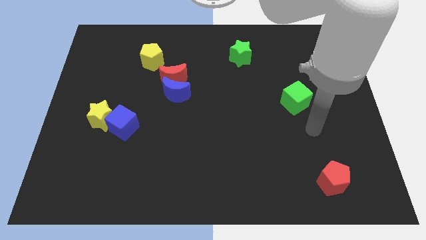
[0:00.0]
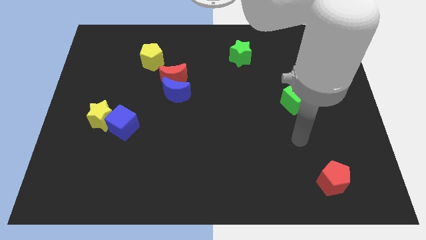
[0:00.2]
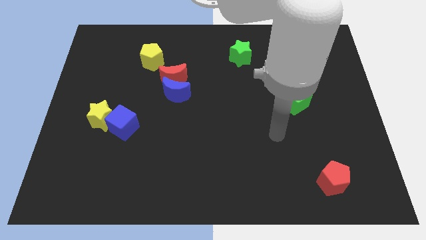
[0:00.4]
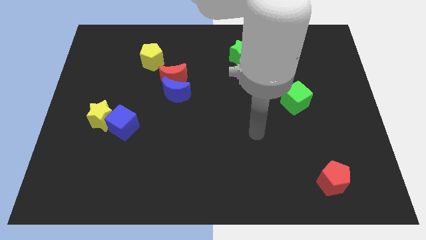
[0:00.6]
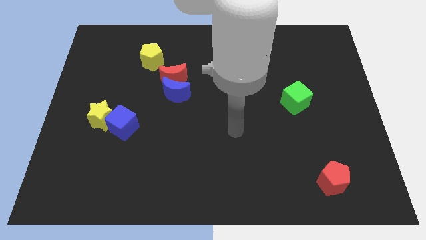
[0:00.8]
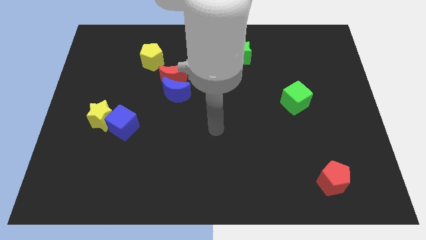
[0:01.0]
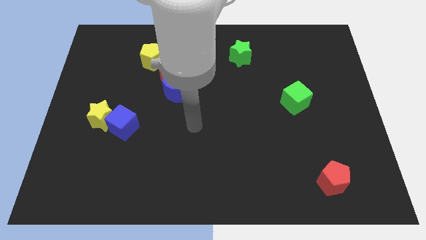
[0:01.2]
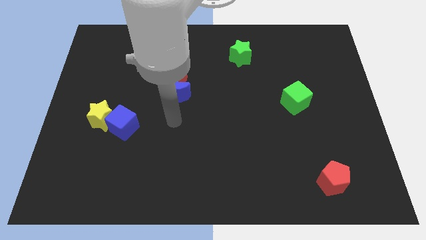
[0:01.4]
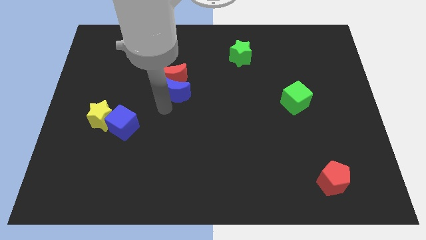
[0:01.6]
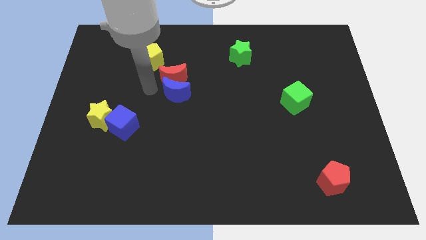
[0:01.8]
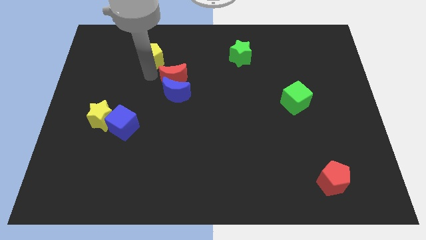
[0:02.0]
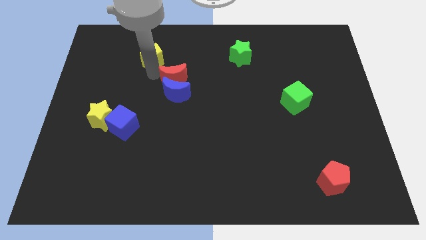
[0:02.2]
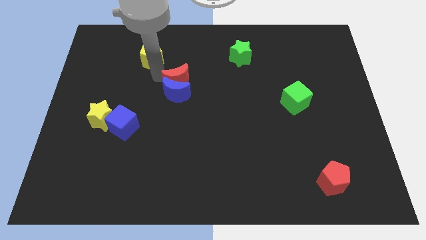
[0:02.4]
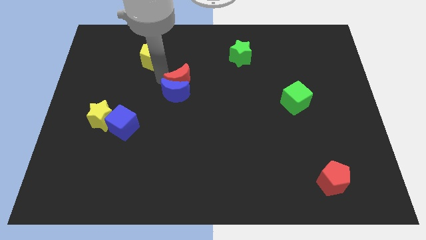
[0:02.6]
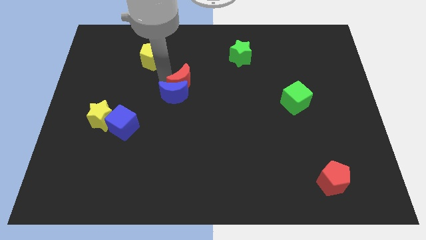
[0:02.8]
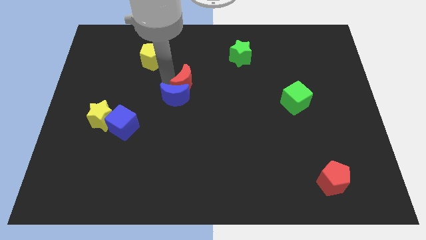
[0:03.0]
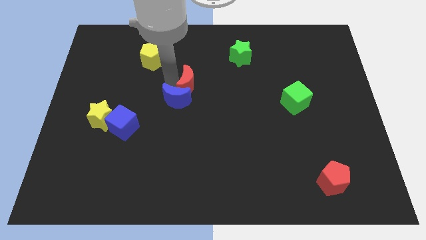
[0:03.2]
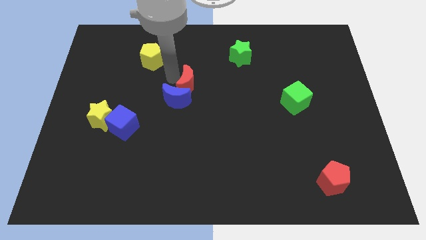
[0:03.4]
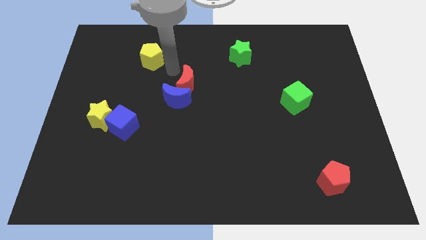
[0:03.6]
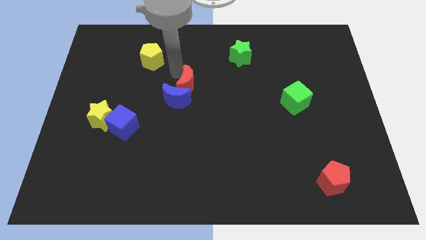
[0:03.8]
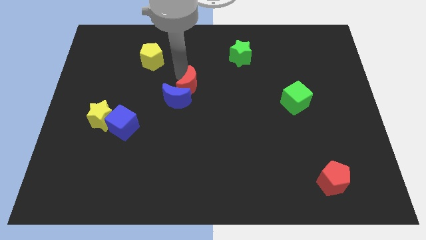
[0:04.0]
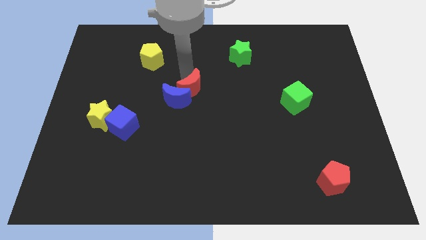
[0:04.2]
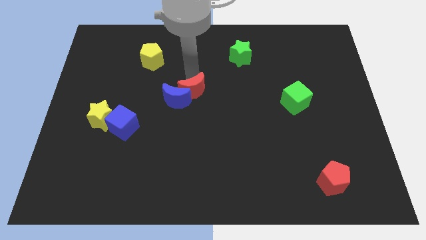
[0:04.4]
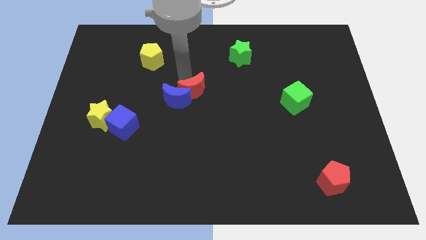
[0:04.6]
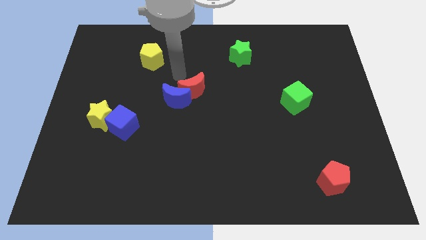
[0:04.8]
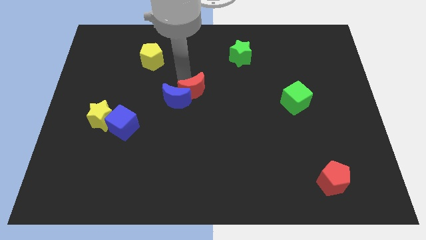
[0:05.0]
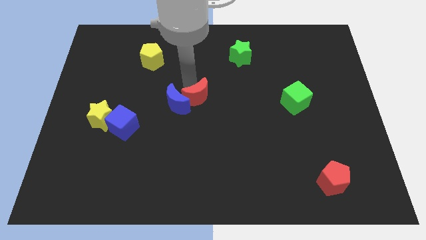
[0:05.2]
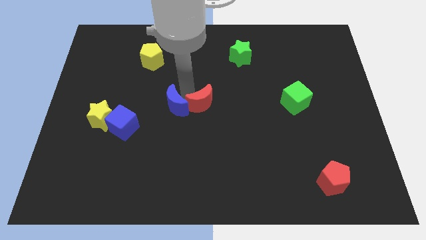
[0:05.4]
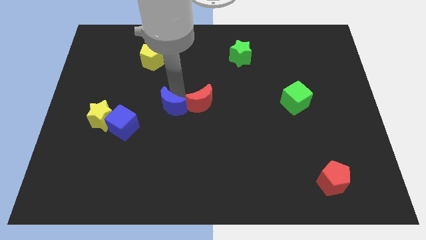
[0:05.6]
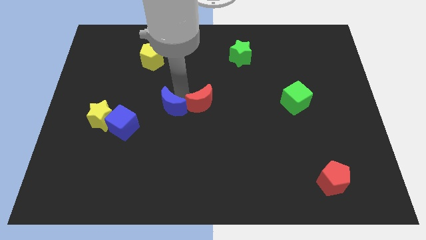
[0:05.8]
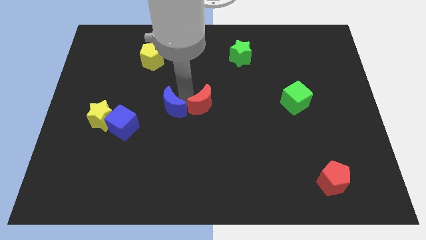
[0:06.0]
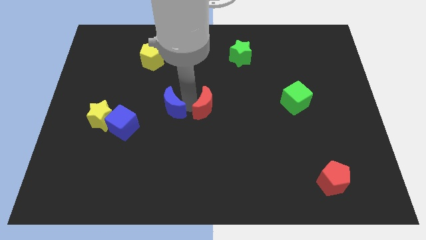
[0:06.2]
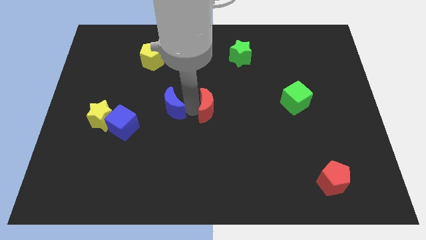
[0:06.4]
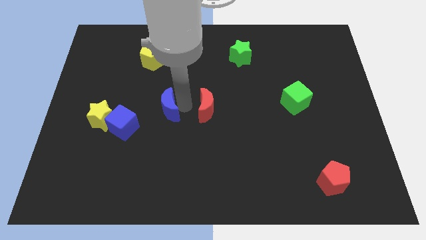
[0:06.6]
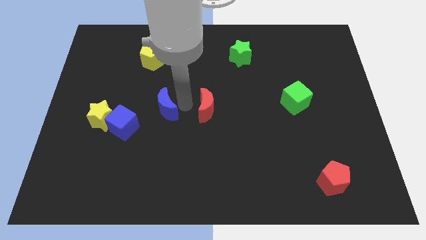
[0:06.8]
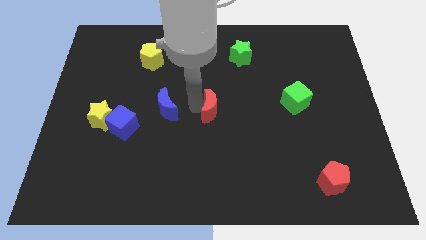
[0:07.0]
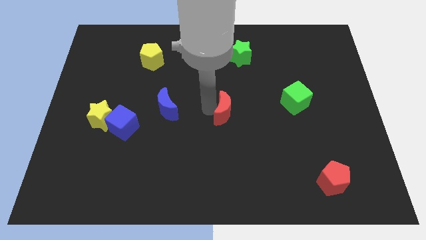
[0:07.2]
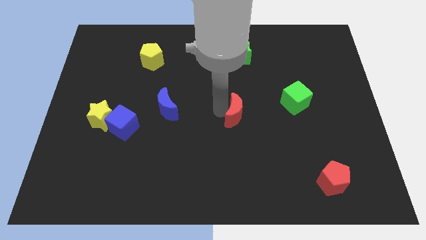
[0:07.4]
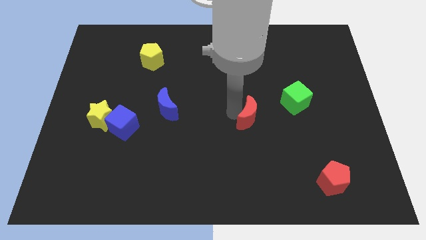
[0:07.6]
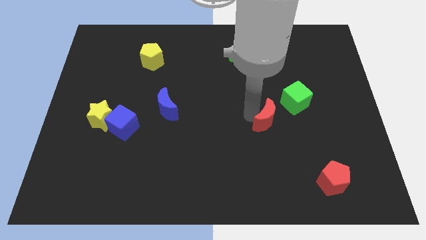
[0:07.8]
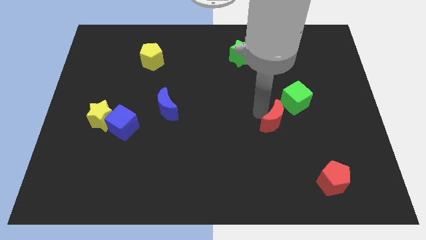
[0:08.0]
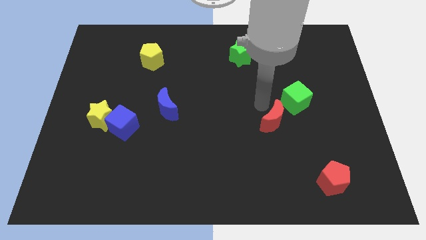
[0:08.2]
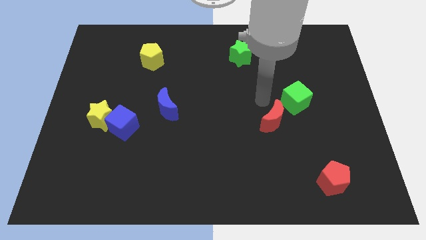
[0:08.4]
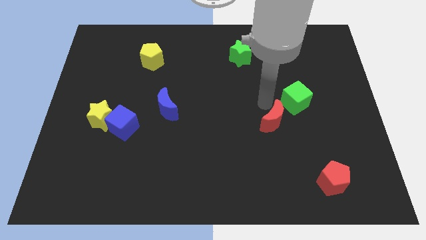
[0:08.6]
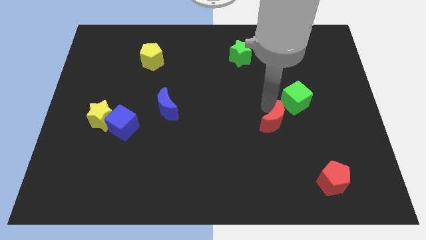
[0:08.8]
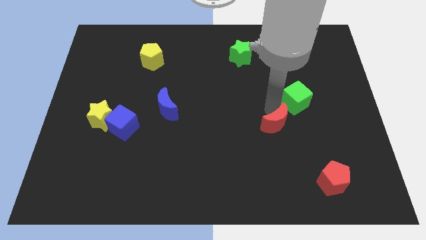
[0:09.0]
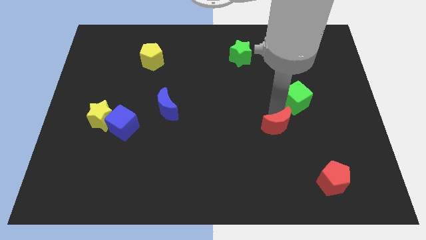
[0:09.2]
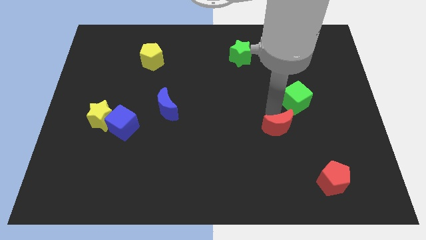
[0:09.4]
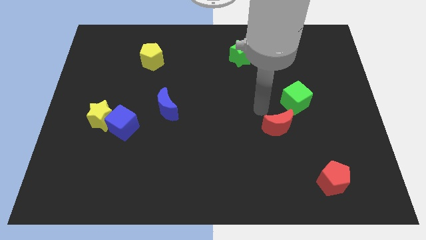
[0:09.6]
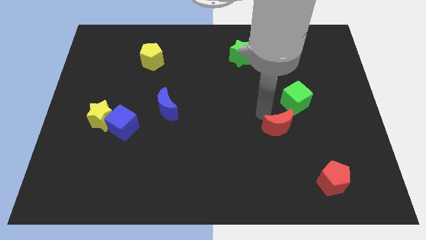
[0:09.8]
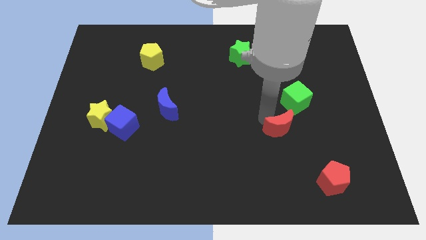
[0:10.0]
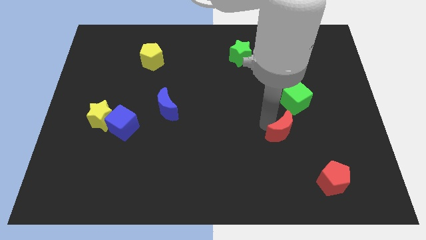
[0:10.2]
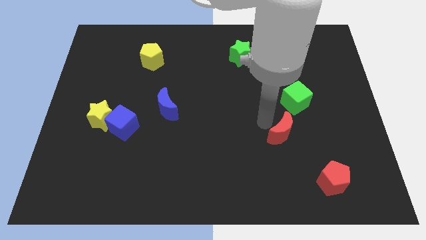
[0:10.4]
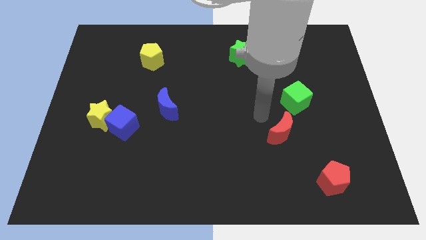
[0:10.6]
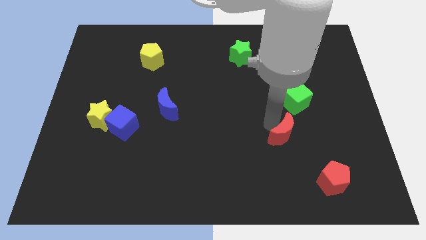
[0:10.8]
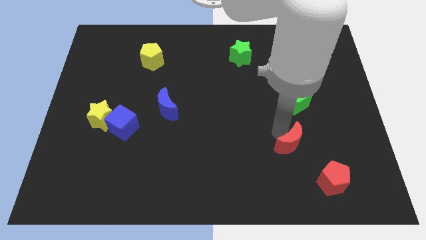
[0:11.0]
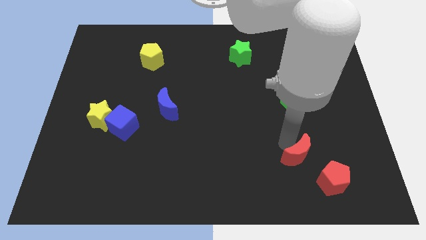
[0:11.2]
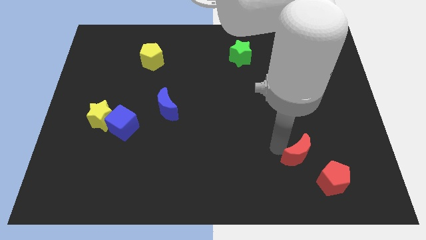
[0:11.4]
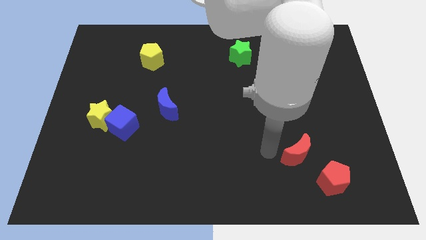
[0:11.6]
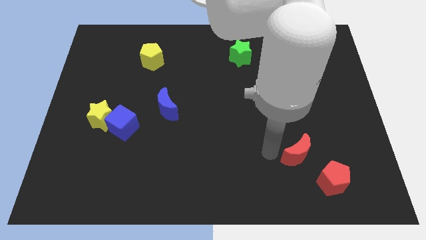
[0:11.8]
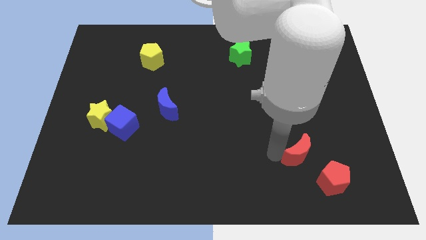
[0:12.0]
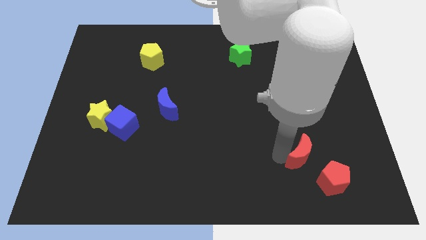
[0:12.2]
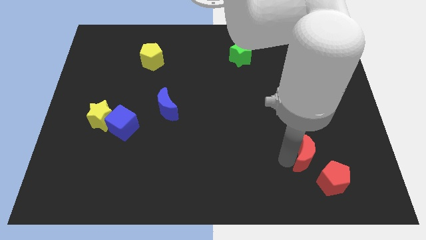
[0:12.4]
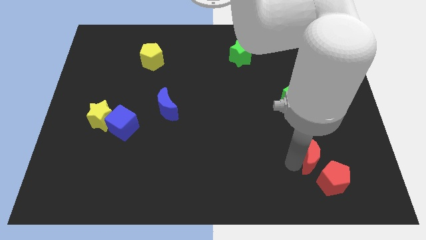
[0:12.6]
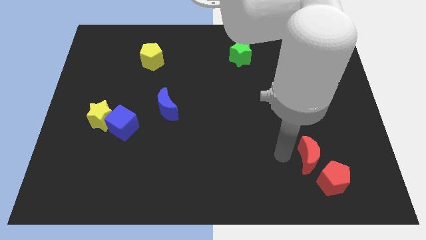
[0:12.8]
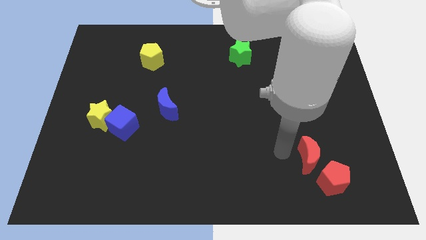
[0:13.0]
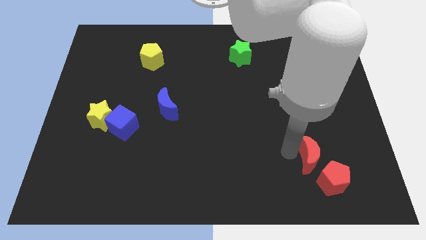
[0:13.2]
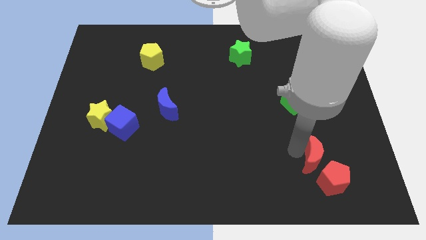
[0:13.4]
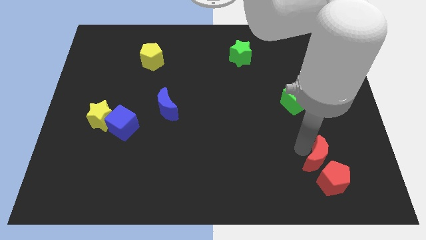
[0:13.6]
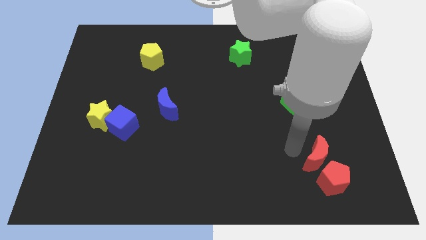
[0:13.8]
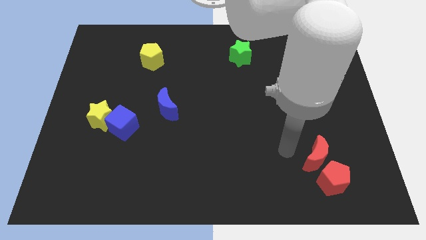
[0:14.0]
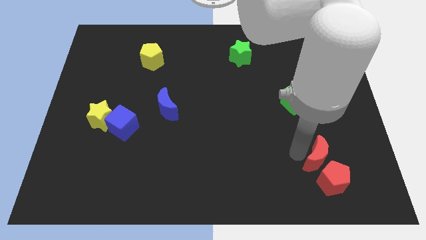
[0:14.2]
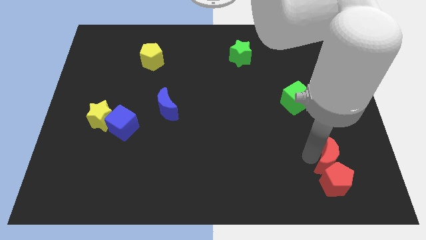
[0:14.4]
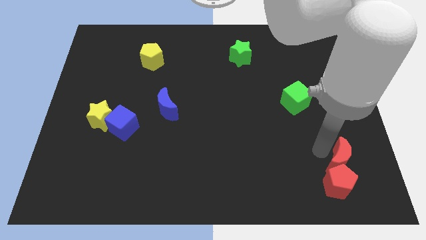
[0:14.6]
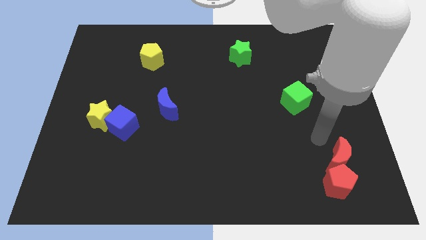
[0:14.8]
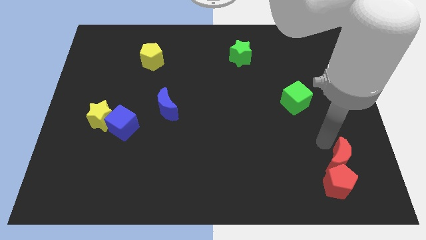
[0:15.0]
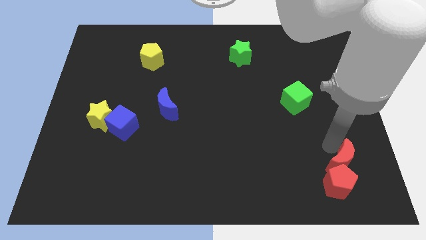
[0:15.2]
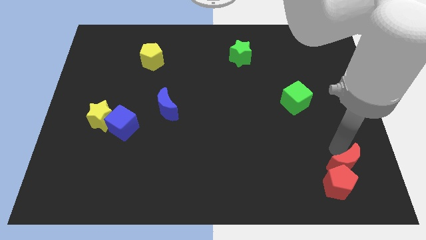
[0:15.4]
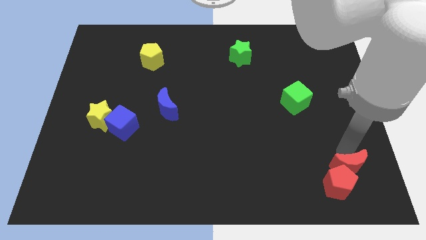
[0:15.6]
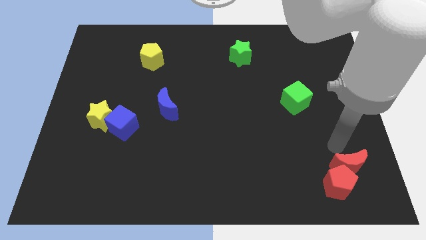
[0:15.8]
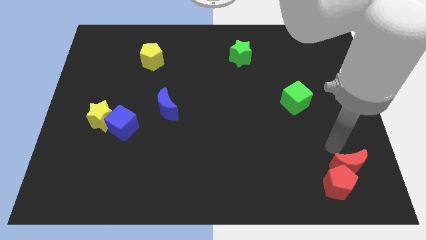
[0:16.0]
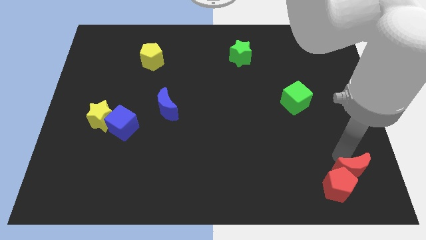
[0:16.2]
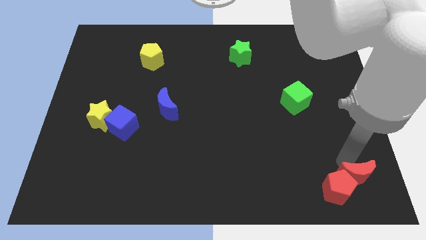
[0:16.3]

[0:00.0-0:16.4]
put the red moon to the lower right corner
